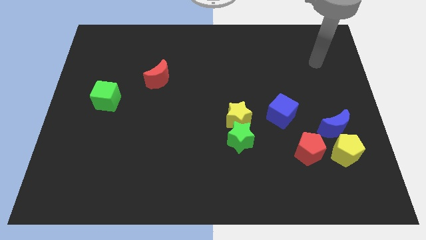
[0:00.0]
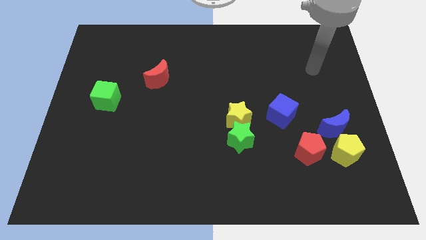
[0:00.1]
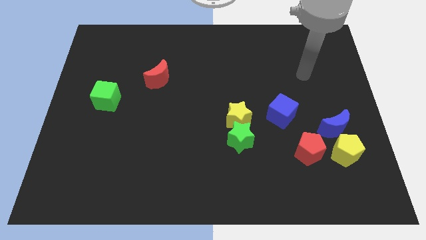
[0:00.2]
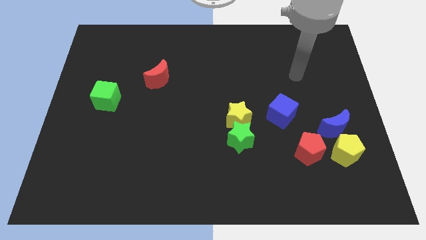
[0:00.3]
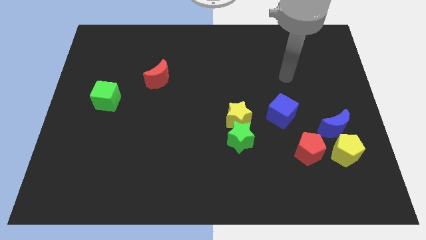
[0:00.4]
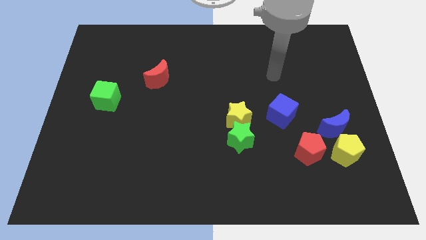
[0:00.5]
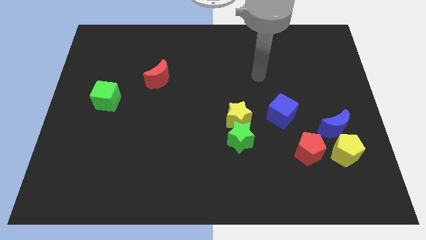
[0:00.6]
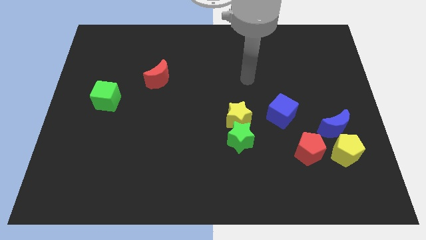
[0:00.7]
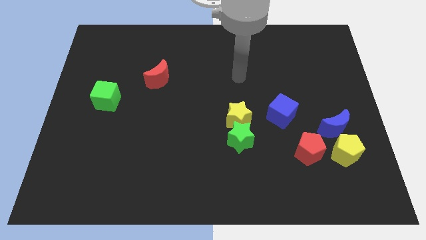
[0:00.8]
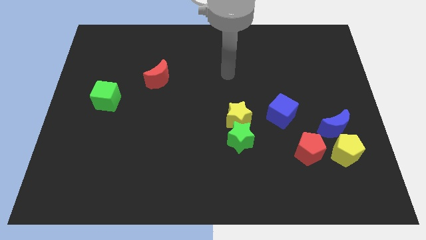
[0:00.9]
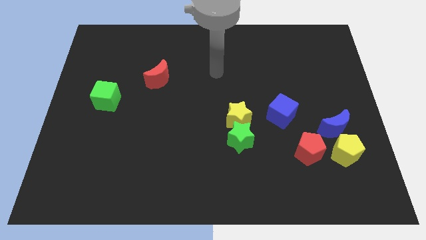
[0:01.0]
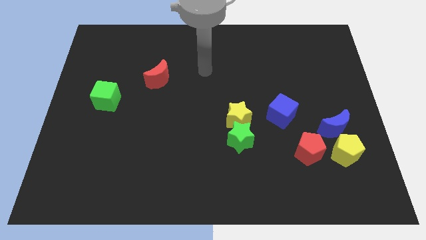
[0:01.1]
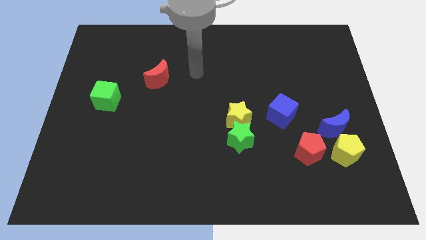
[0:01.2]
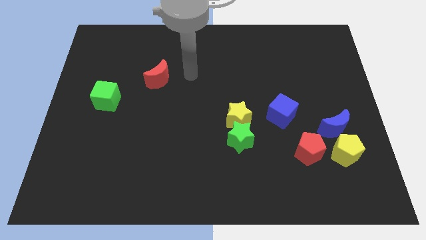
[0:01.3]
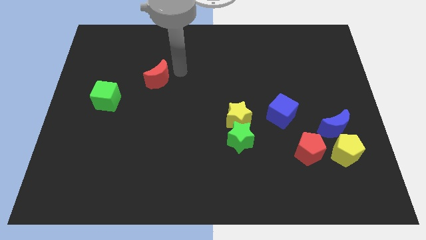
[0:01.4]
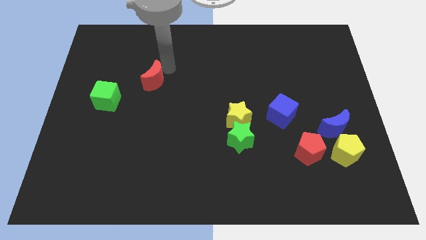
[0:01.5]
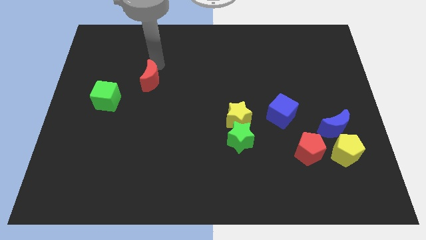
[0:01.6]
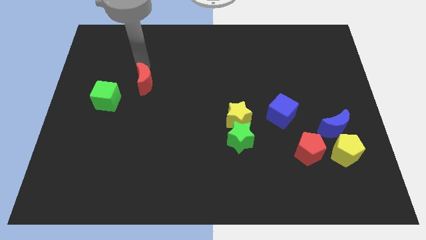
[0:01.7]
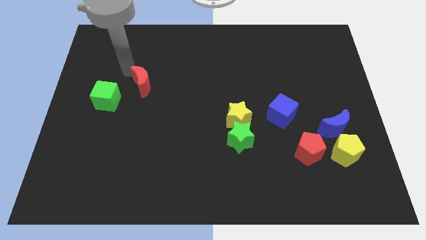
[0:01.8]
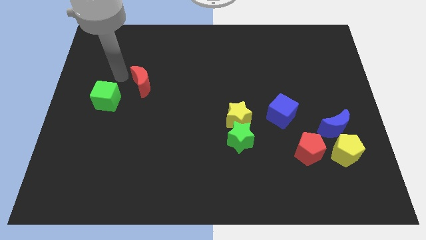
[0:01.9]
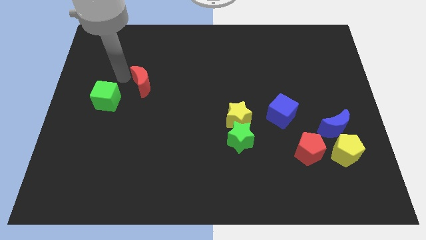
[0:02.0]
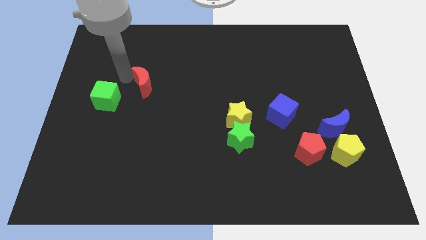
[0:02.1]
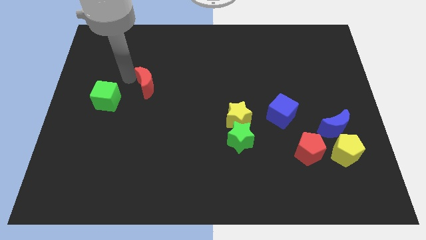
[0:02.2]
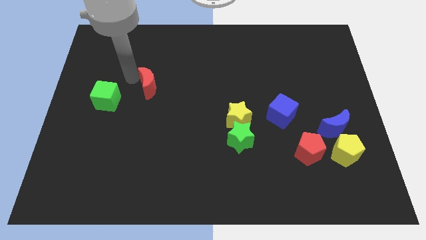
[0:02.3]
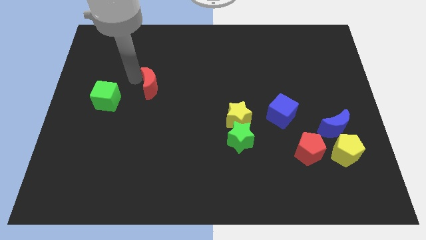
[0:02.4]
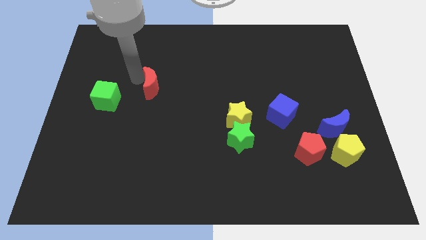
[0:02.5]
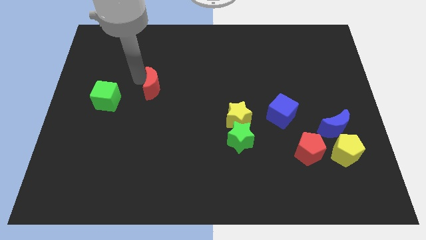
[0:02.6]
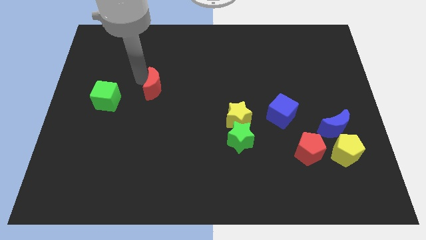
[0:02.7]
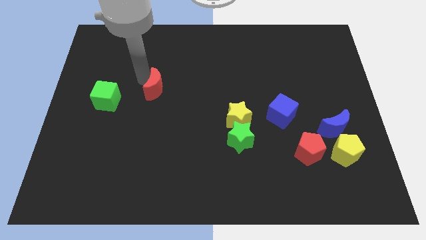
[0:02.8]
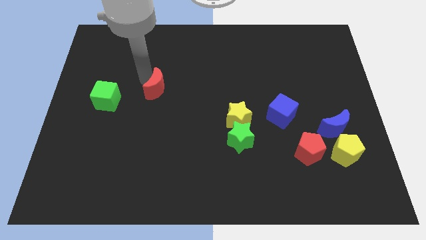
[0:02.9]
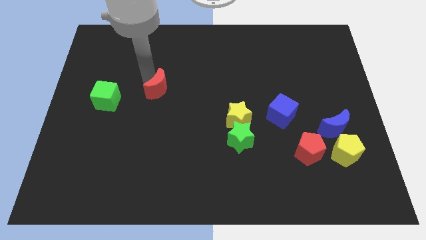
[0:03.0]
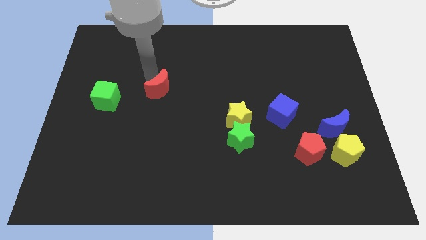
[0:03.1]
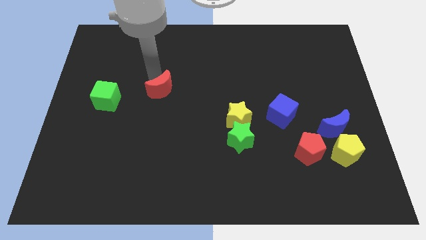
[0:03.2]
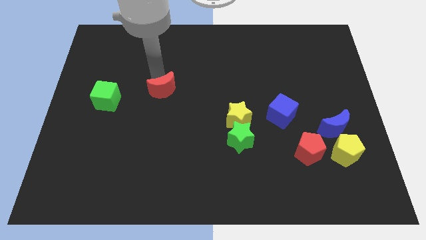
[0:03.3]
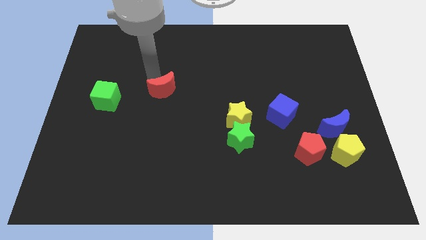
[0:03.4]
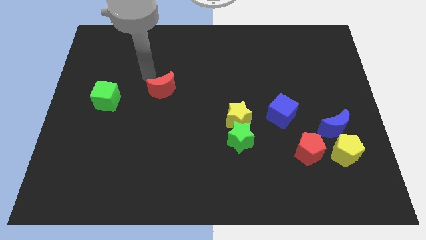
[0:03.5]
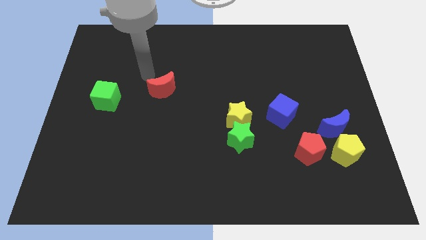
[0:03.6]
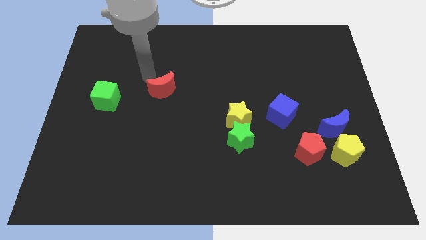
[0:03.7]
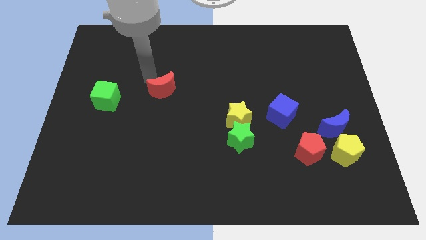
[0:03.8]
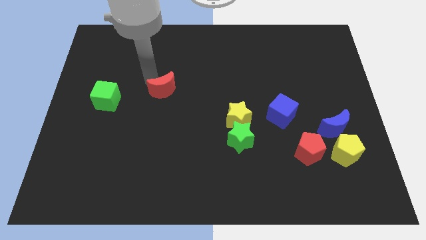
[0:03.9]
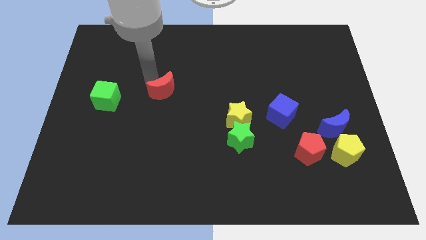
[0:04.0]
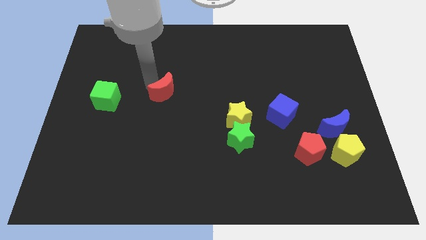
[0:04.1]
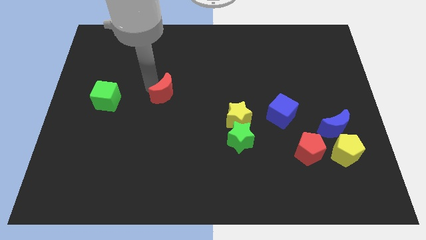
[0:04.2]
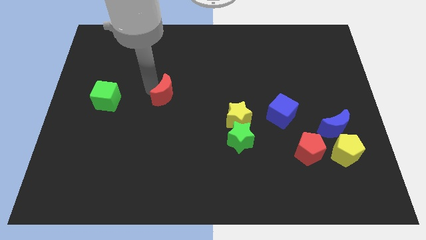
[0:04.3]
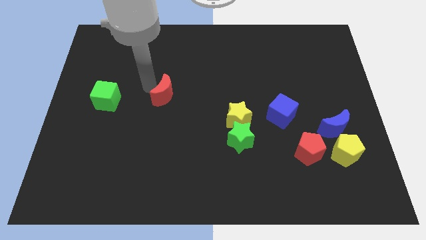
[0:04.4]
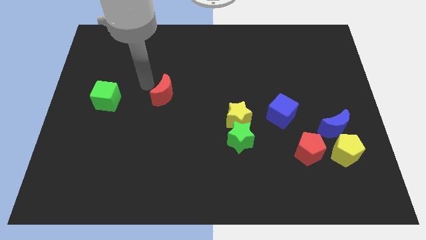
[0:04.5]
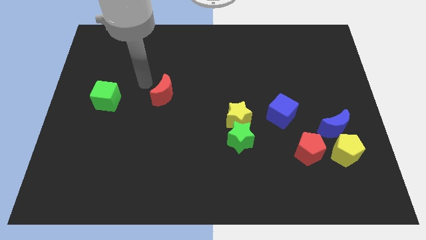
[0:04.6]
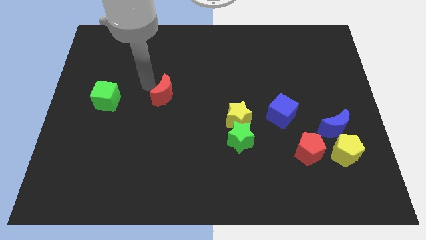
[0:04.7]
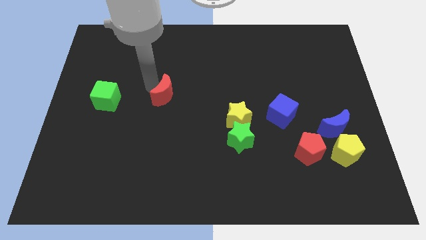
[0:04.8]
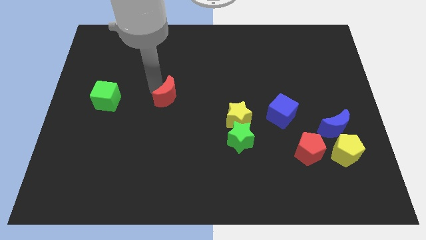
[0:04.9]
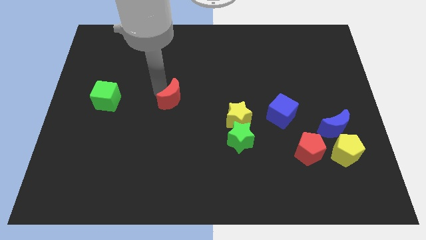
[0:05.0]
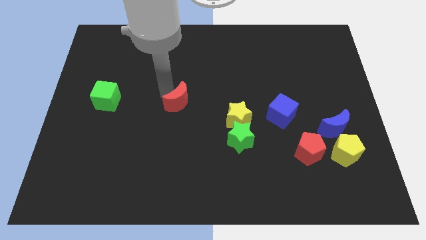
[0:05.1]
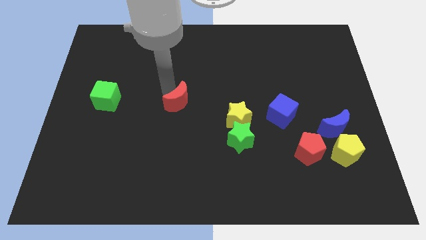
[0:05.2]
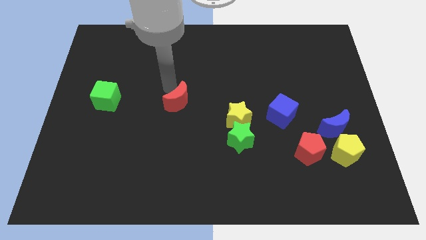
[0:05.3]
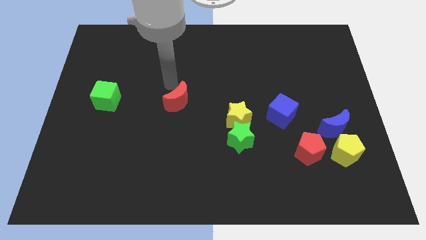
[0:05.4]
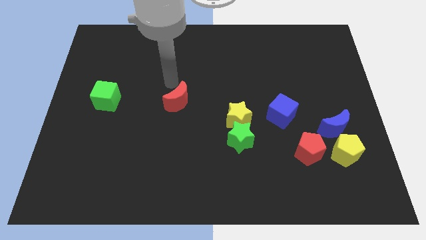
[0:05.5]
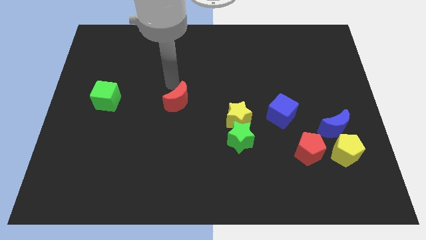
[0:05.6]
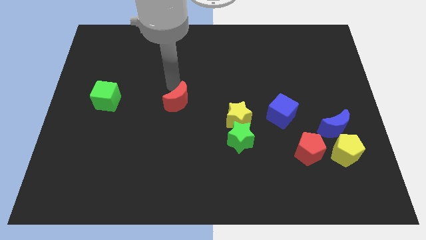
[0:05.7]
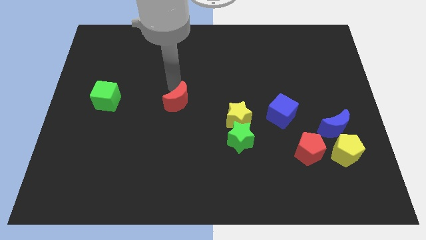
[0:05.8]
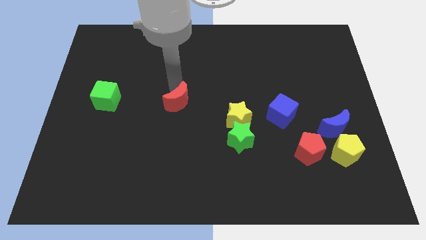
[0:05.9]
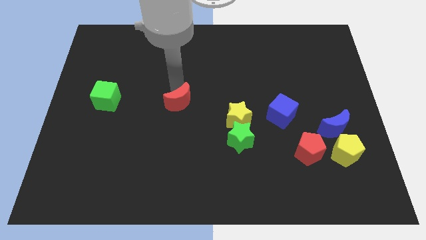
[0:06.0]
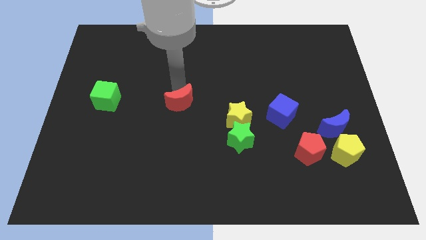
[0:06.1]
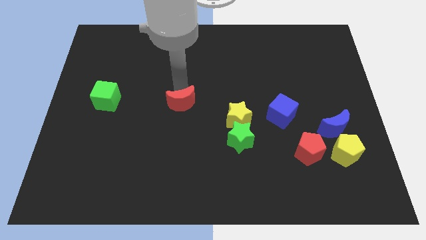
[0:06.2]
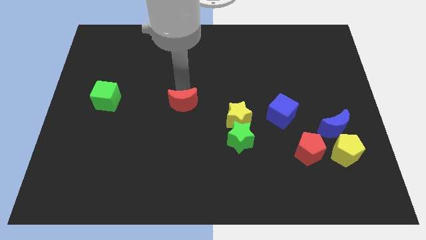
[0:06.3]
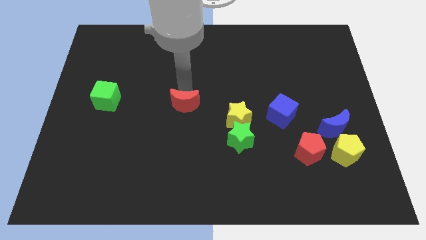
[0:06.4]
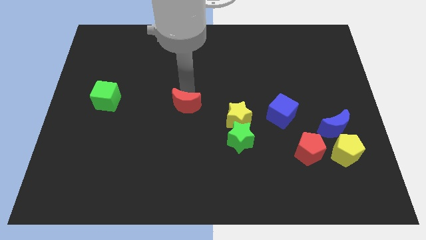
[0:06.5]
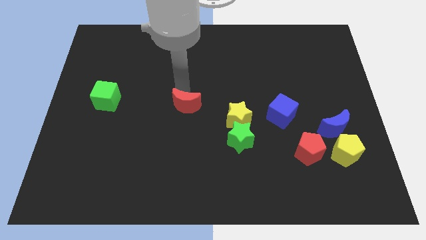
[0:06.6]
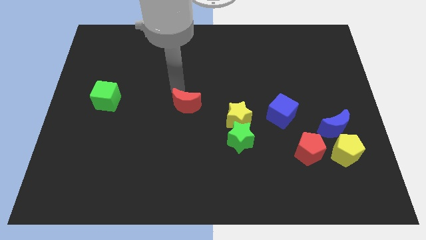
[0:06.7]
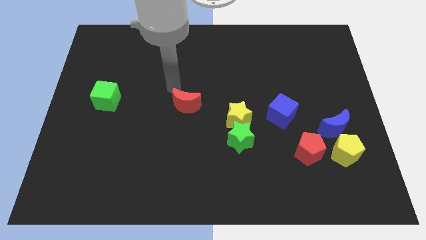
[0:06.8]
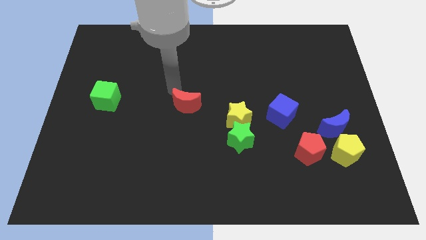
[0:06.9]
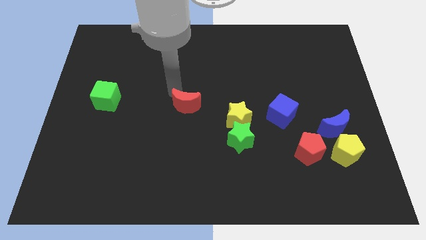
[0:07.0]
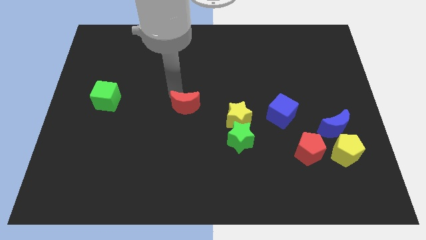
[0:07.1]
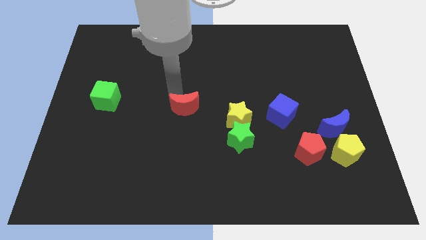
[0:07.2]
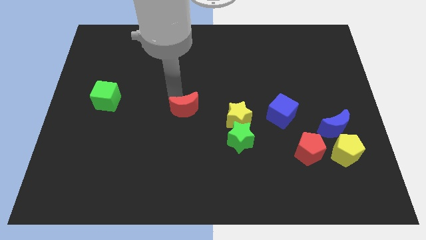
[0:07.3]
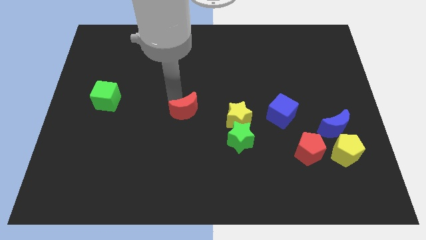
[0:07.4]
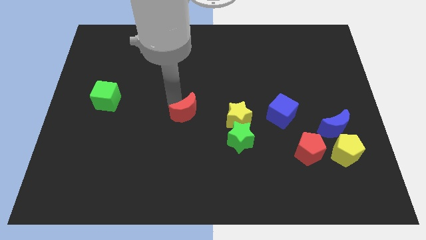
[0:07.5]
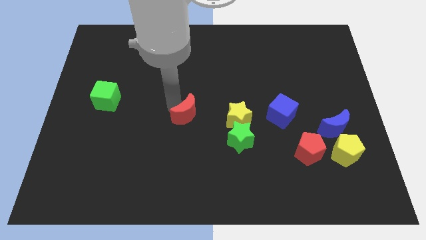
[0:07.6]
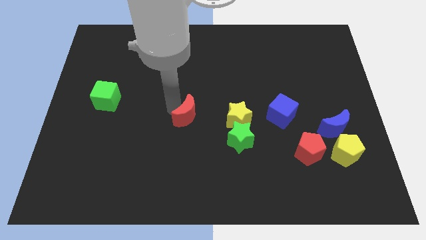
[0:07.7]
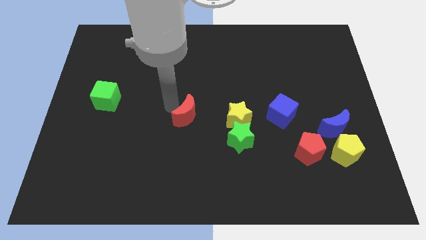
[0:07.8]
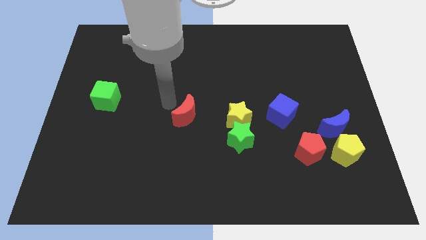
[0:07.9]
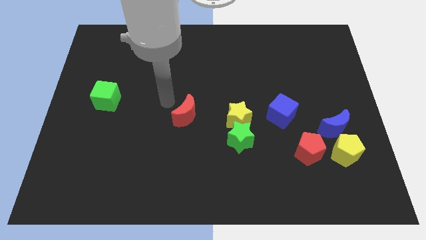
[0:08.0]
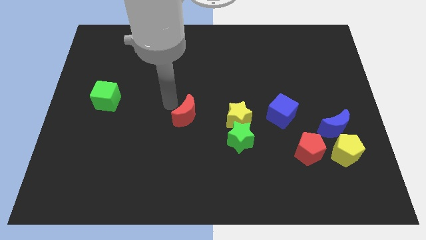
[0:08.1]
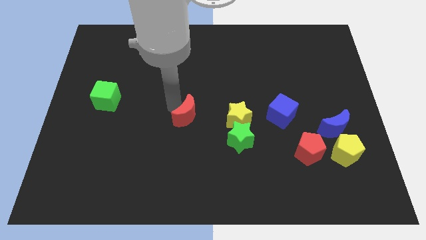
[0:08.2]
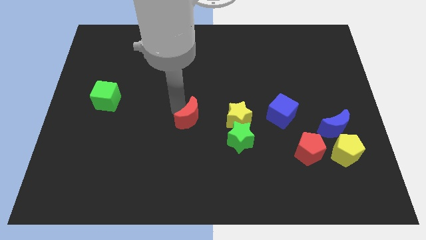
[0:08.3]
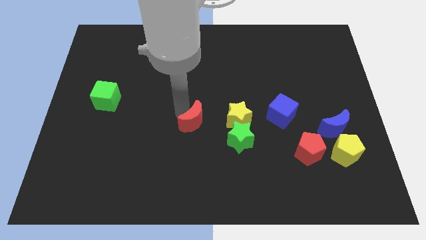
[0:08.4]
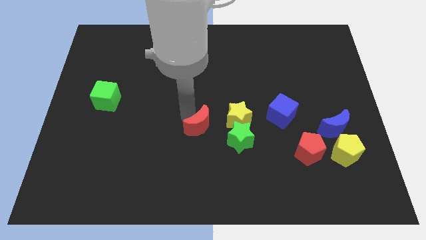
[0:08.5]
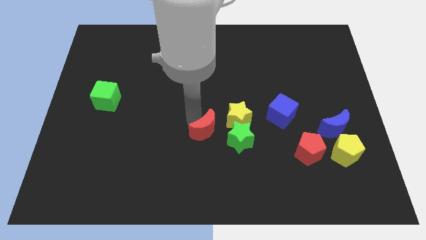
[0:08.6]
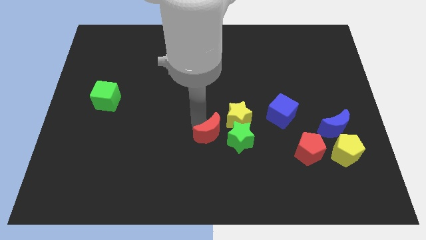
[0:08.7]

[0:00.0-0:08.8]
move the red moon diagonally down and to the right
